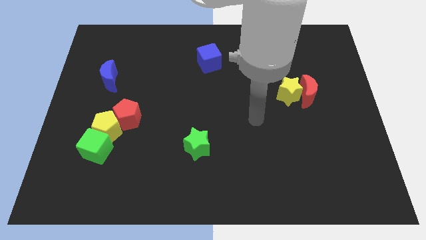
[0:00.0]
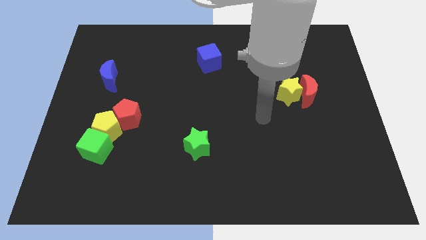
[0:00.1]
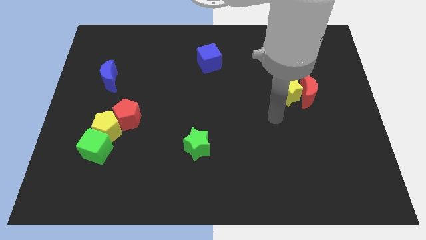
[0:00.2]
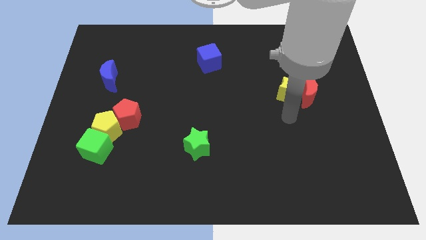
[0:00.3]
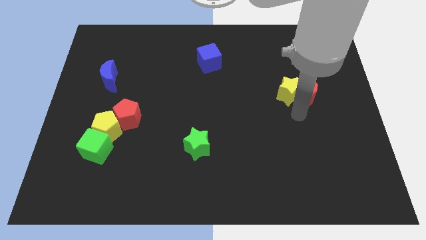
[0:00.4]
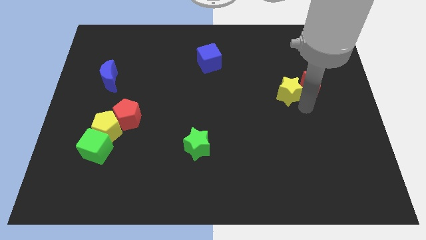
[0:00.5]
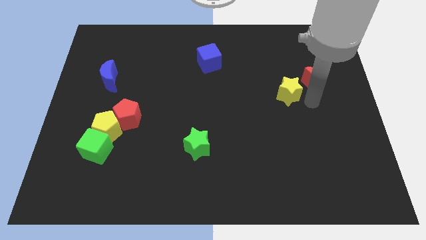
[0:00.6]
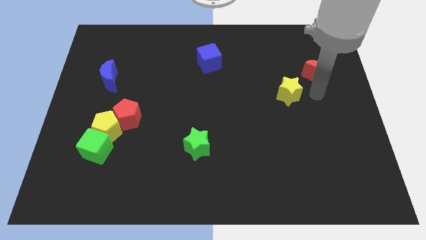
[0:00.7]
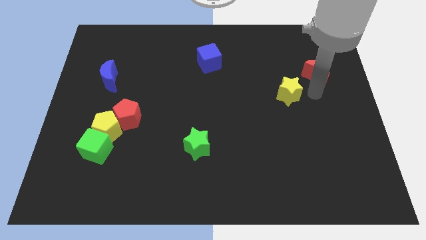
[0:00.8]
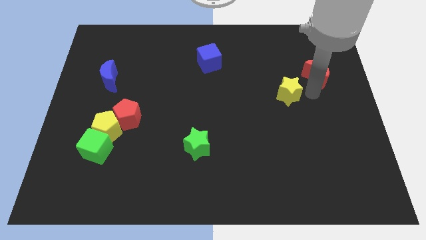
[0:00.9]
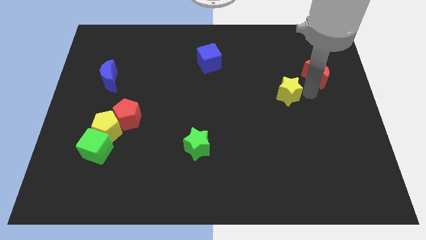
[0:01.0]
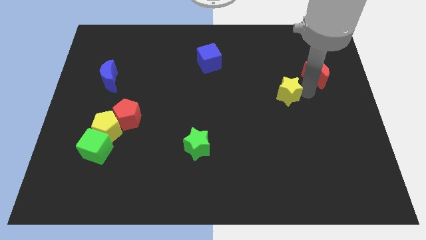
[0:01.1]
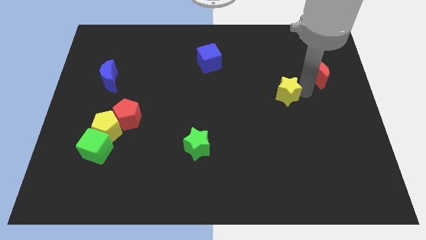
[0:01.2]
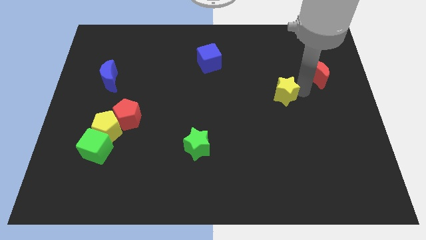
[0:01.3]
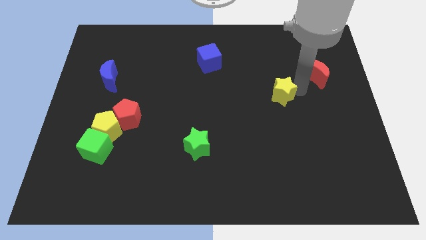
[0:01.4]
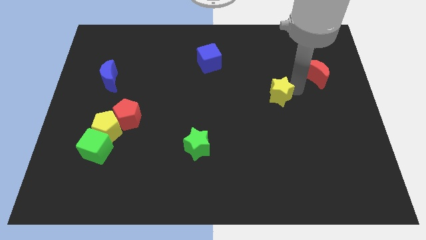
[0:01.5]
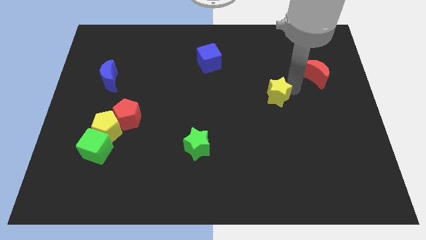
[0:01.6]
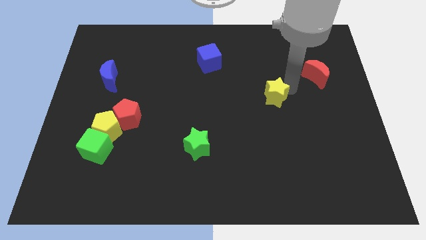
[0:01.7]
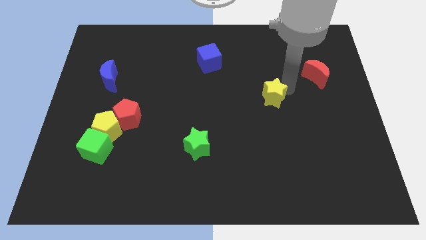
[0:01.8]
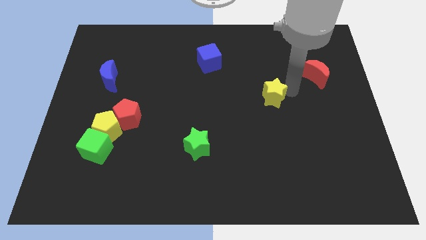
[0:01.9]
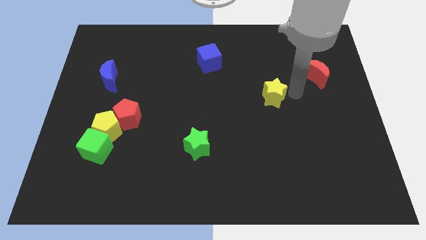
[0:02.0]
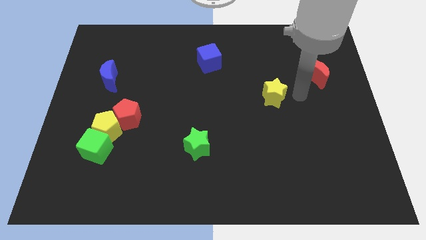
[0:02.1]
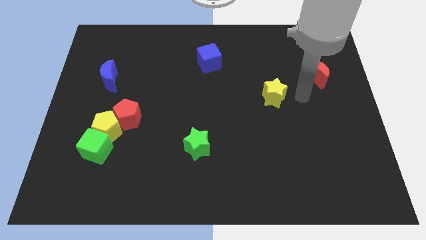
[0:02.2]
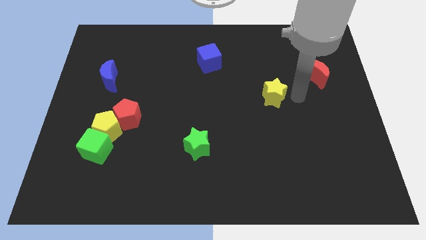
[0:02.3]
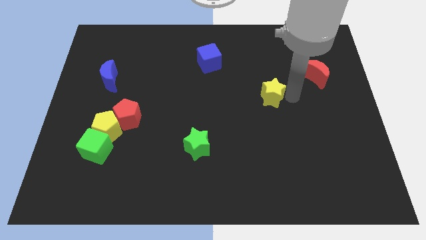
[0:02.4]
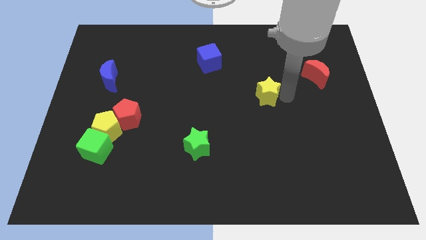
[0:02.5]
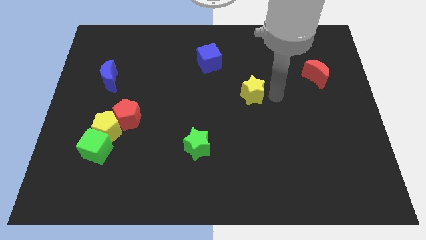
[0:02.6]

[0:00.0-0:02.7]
move the yellow star somewhat to the left

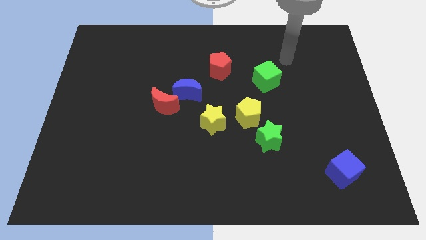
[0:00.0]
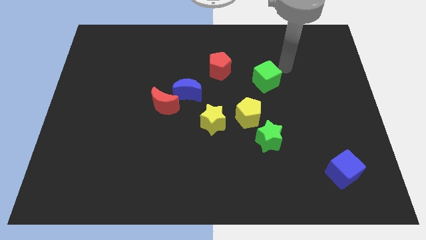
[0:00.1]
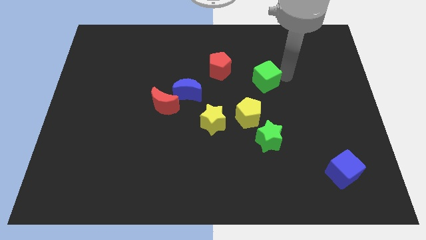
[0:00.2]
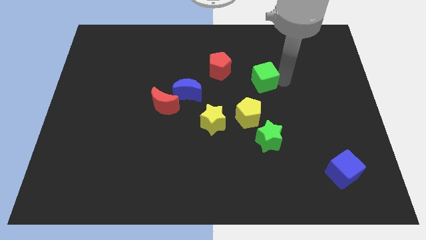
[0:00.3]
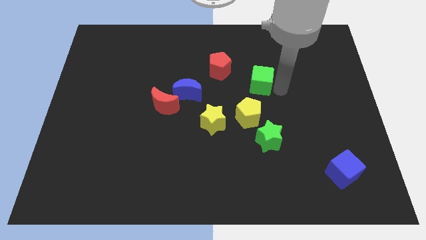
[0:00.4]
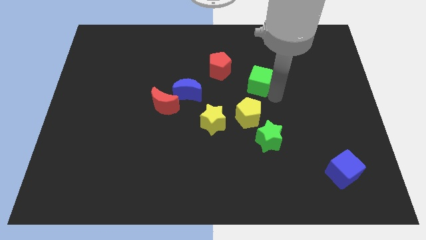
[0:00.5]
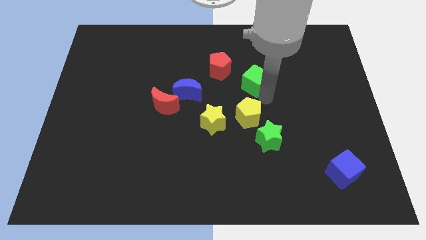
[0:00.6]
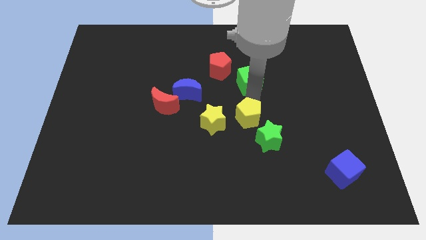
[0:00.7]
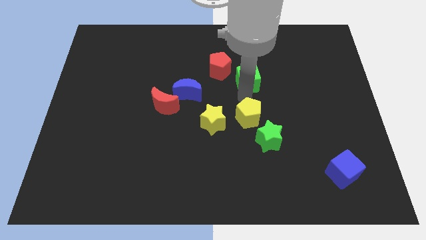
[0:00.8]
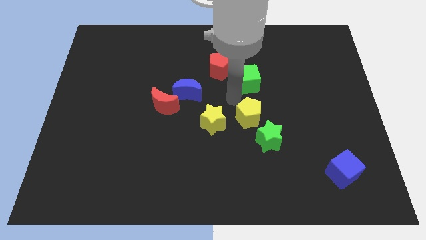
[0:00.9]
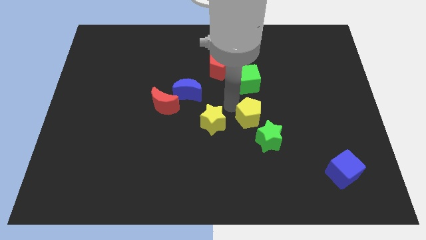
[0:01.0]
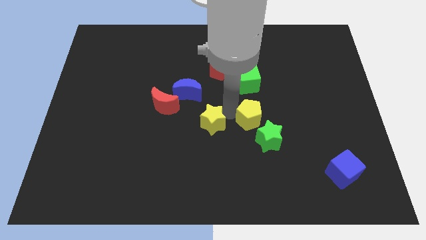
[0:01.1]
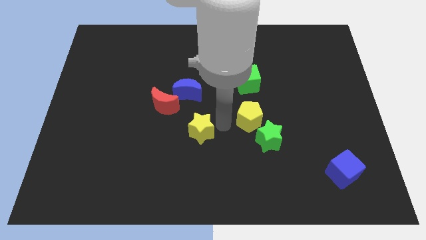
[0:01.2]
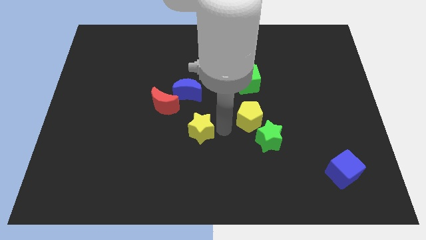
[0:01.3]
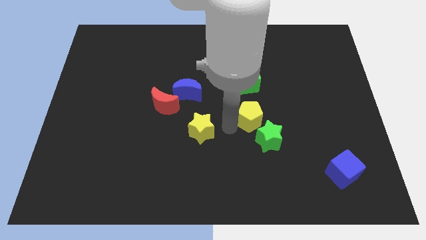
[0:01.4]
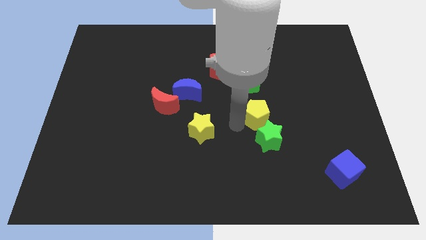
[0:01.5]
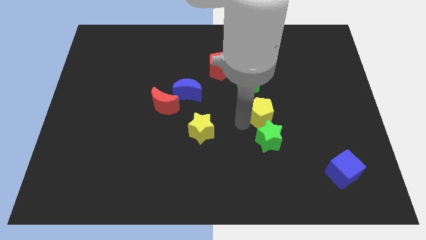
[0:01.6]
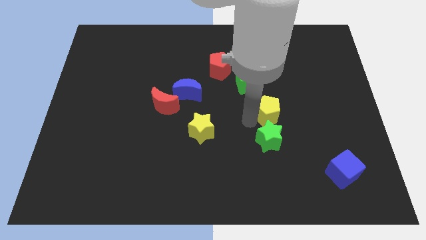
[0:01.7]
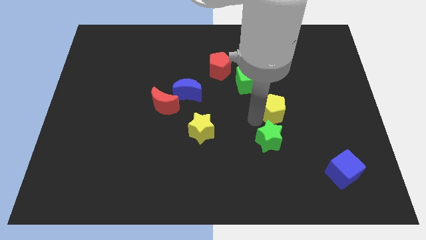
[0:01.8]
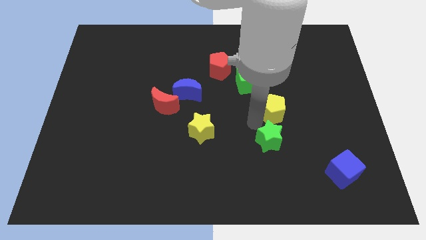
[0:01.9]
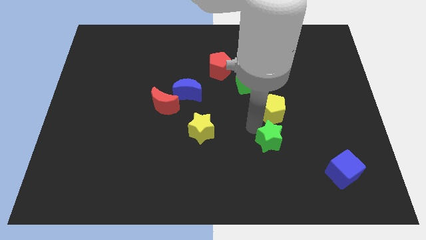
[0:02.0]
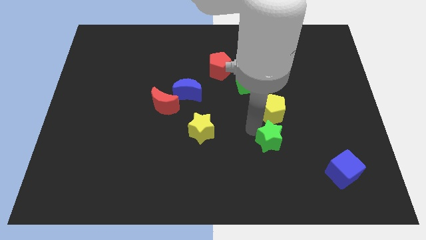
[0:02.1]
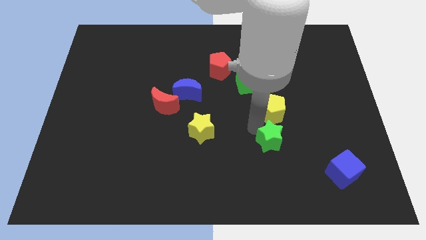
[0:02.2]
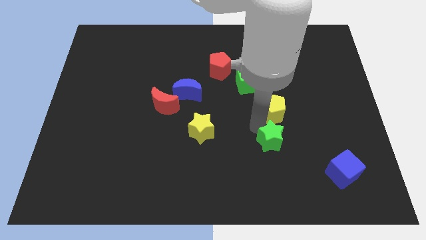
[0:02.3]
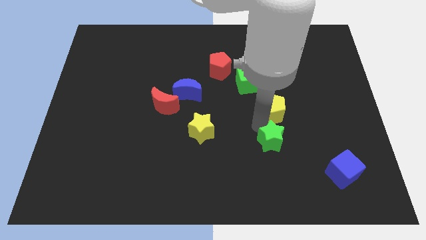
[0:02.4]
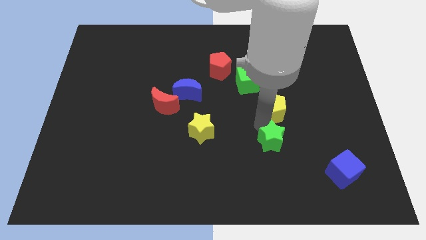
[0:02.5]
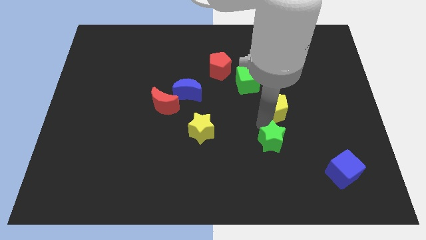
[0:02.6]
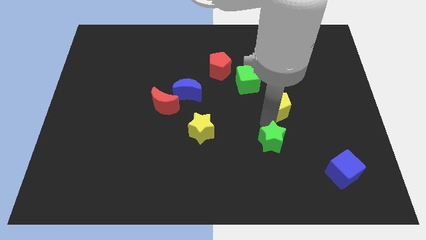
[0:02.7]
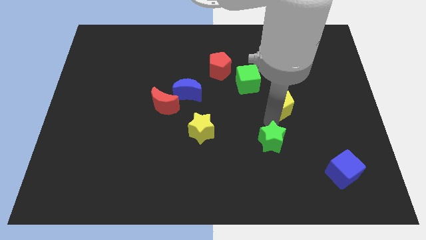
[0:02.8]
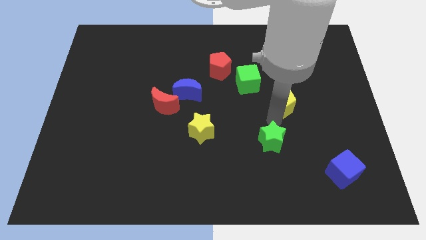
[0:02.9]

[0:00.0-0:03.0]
push the yellow pentagon upwards and then to the right a little bit

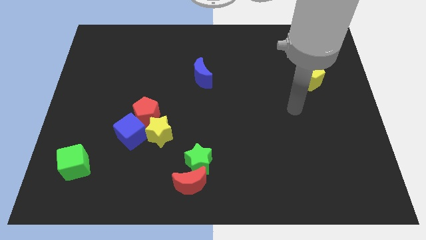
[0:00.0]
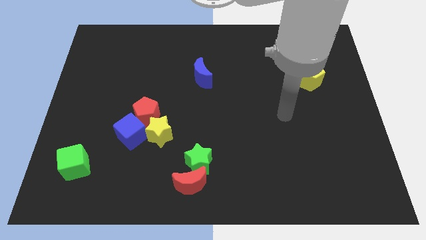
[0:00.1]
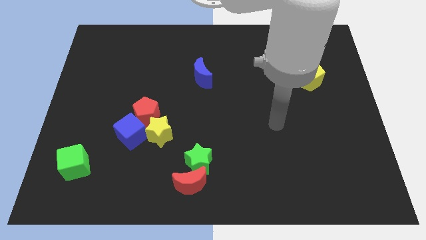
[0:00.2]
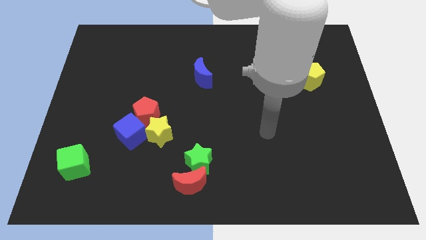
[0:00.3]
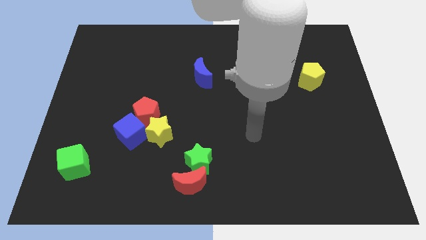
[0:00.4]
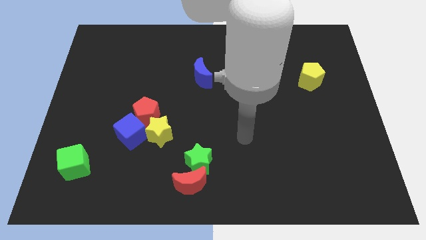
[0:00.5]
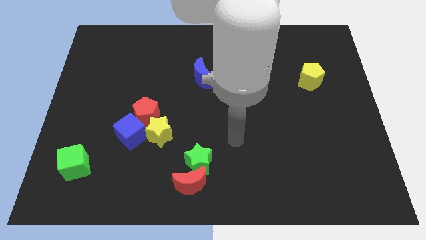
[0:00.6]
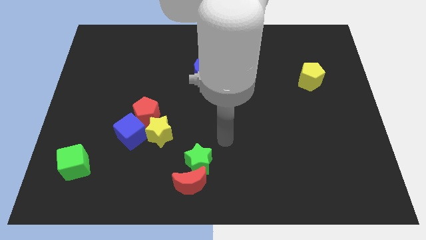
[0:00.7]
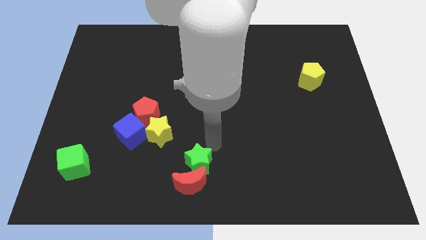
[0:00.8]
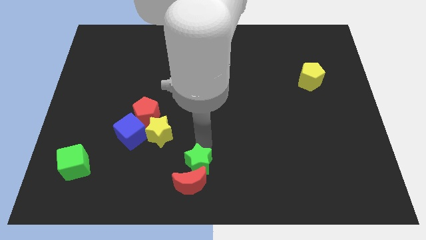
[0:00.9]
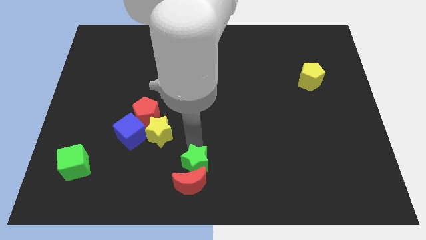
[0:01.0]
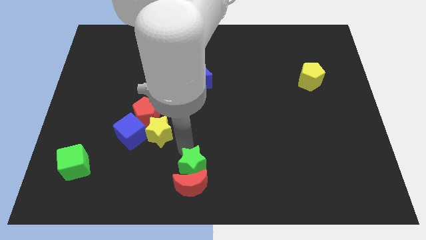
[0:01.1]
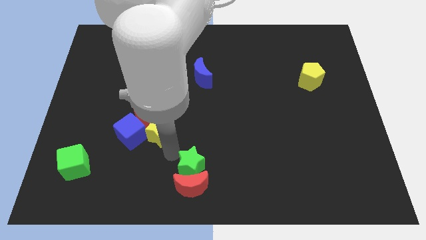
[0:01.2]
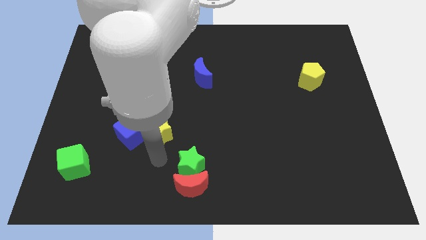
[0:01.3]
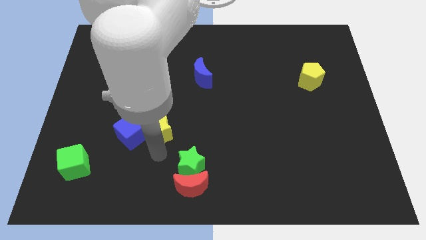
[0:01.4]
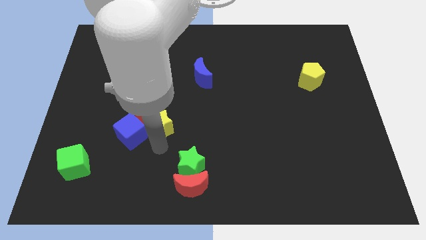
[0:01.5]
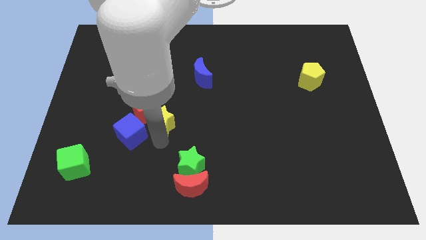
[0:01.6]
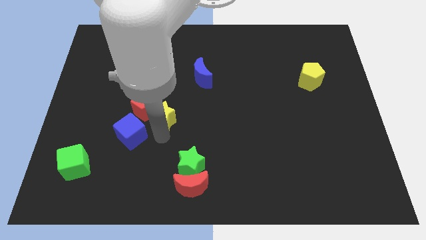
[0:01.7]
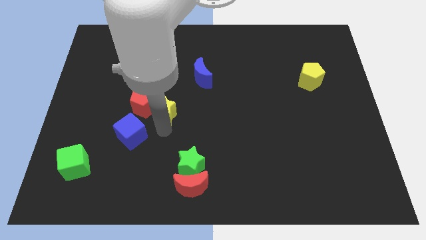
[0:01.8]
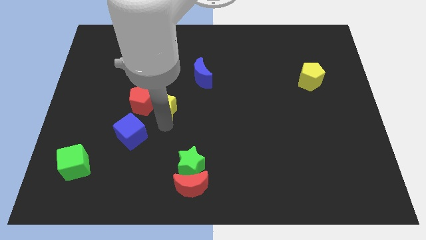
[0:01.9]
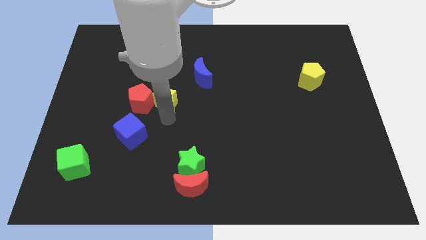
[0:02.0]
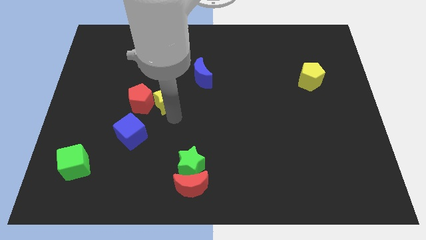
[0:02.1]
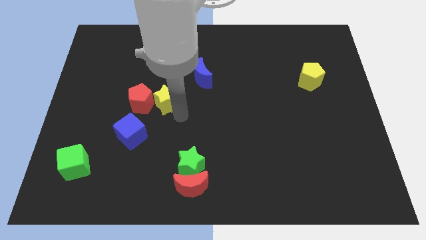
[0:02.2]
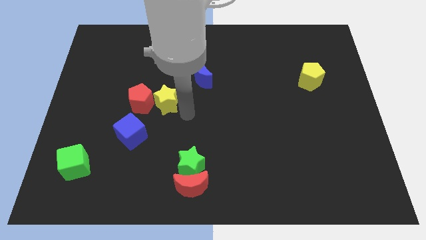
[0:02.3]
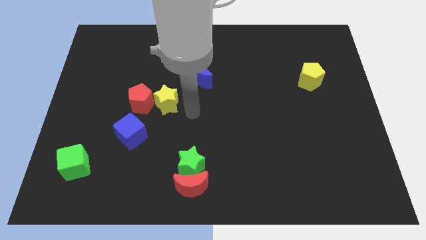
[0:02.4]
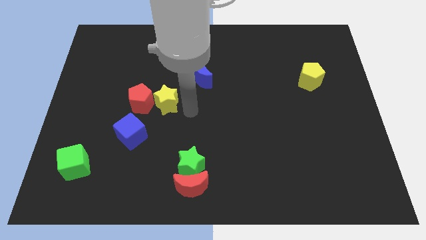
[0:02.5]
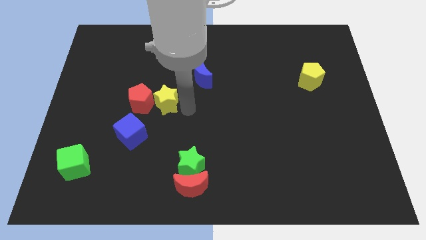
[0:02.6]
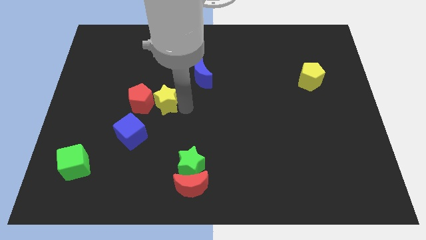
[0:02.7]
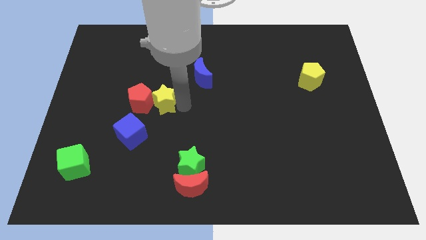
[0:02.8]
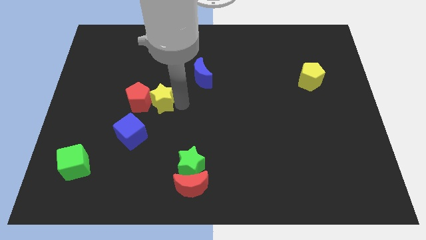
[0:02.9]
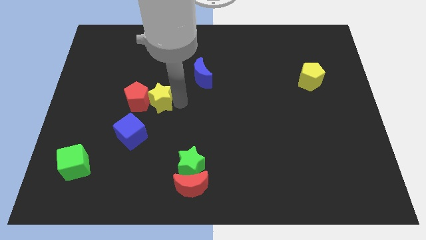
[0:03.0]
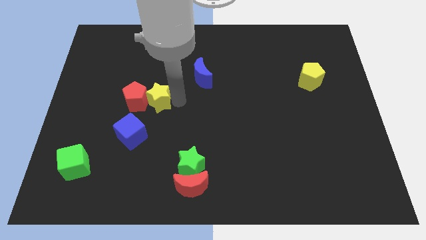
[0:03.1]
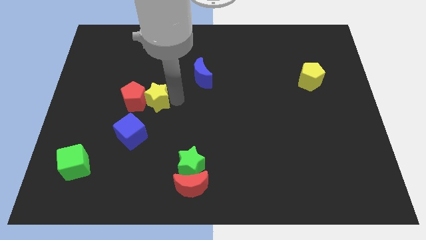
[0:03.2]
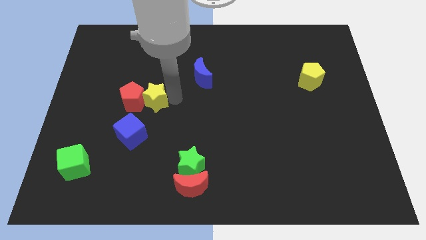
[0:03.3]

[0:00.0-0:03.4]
move the yellow star a little bit upwards and to the left
